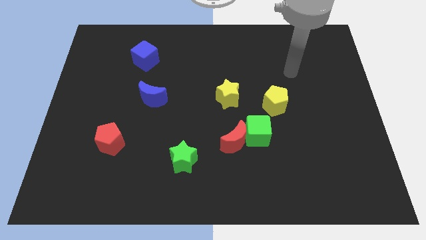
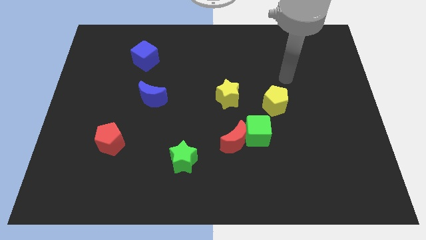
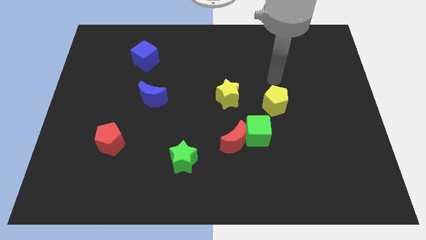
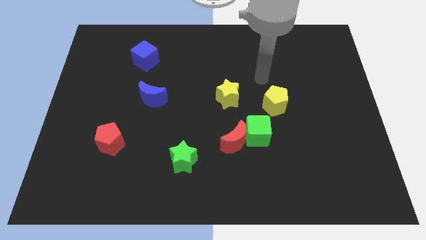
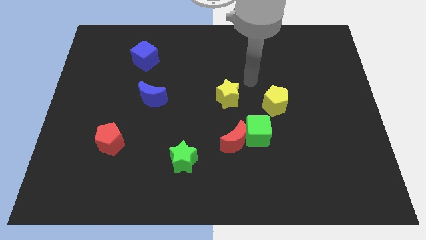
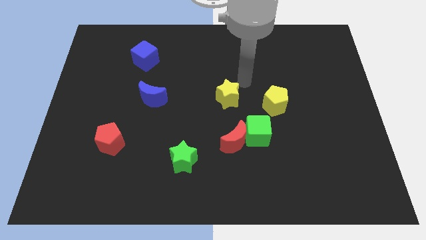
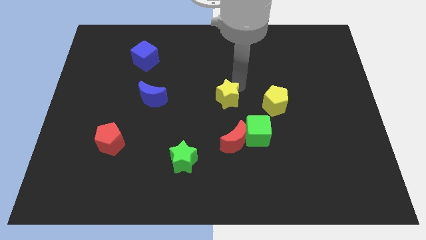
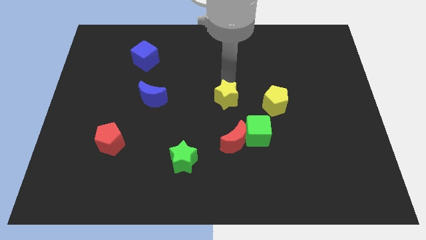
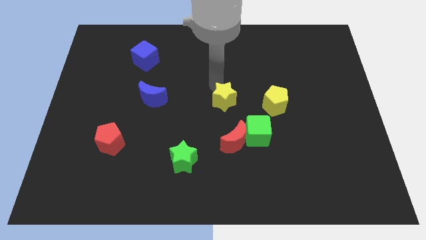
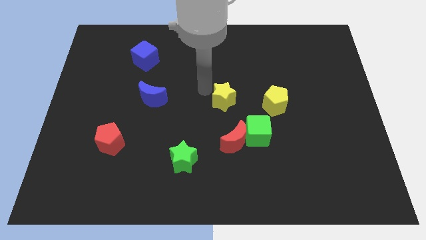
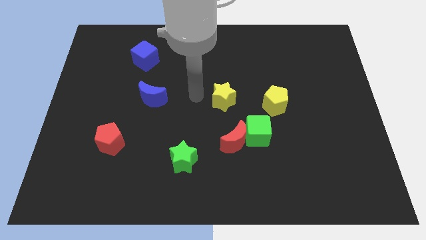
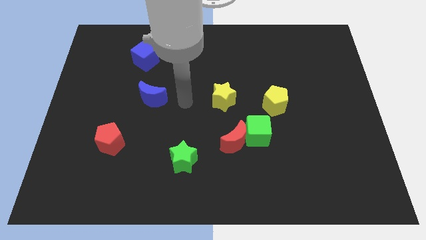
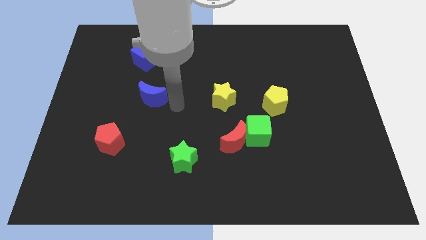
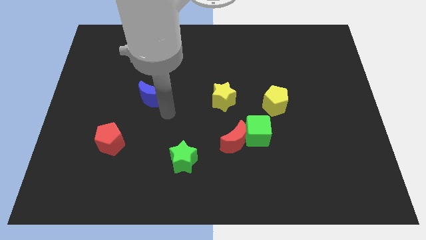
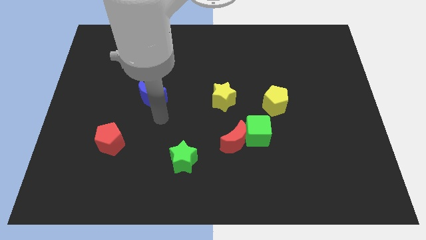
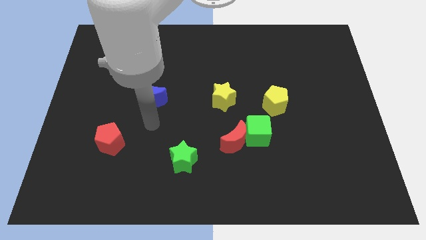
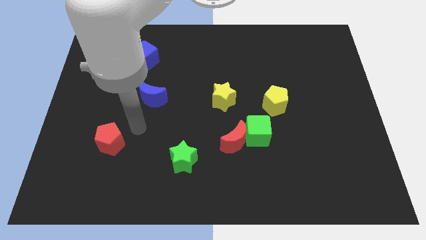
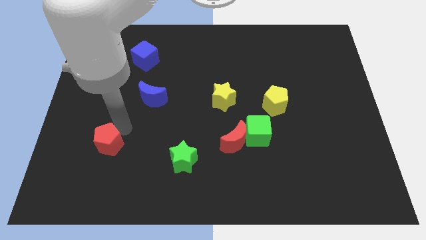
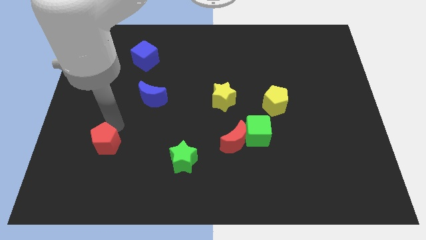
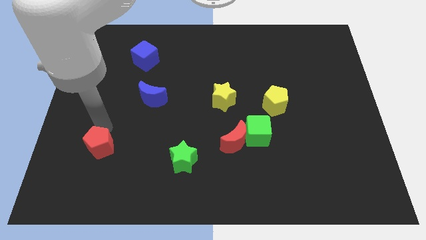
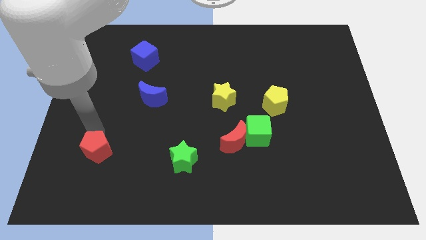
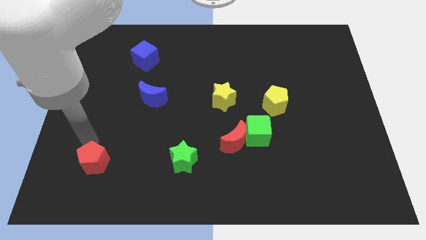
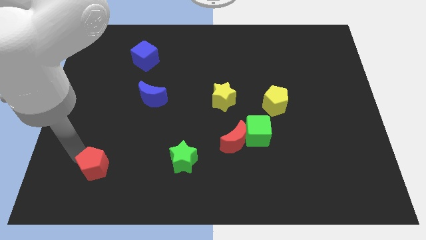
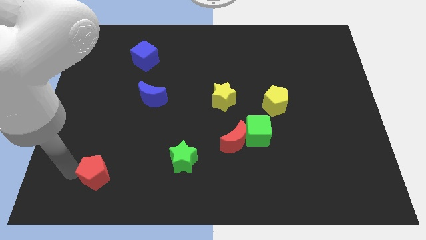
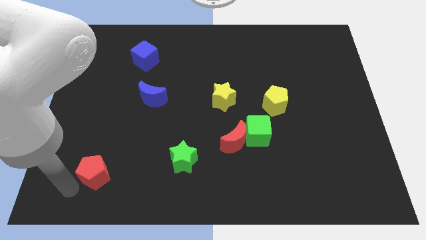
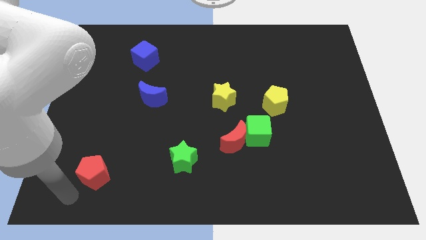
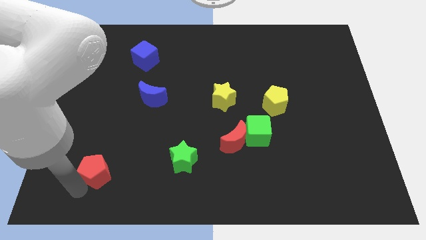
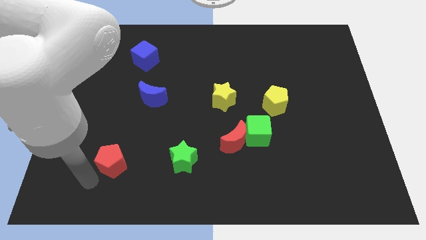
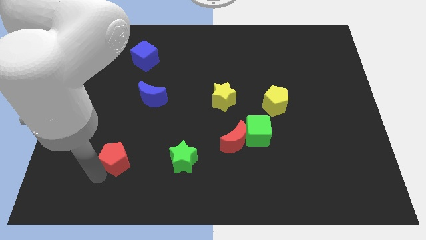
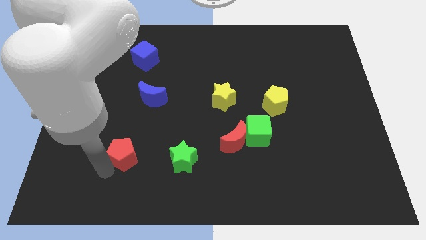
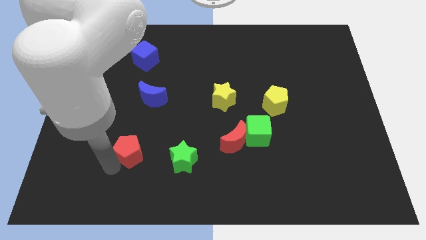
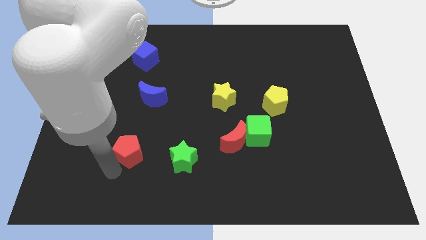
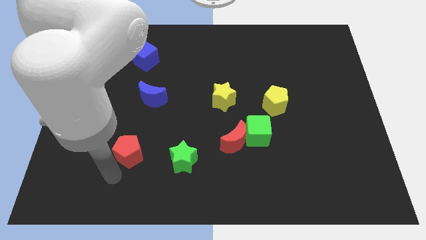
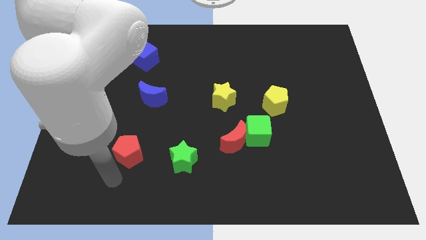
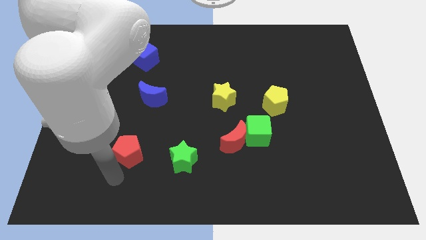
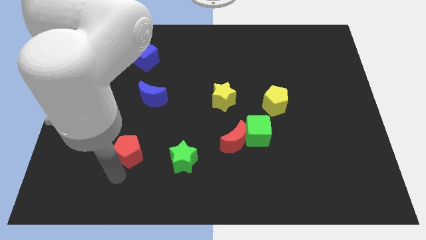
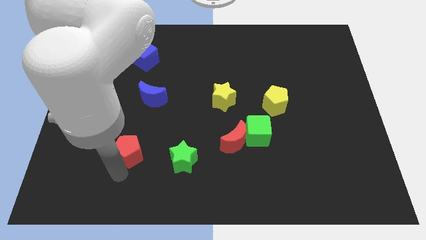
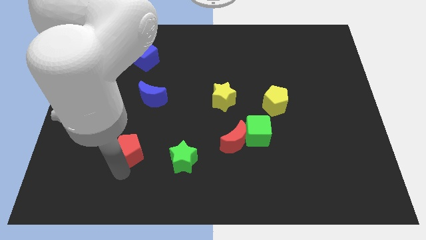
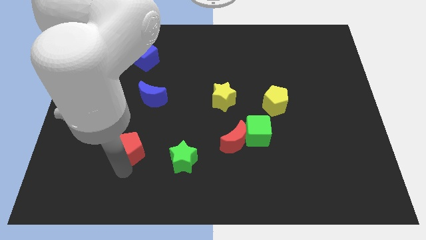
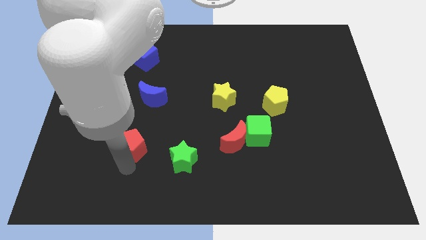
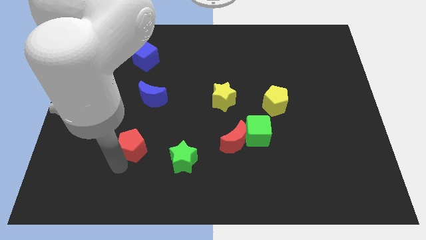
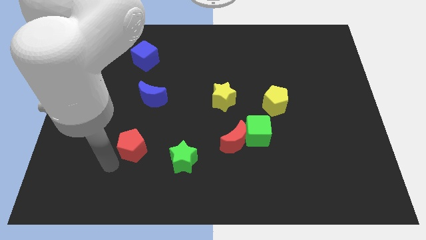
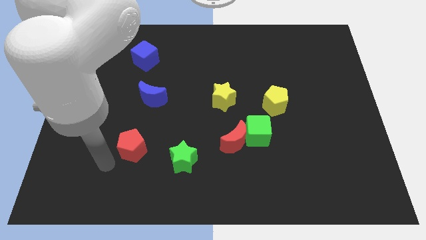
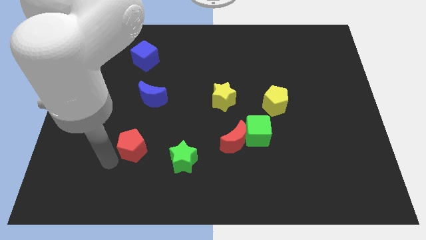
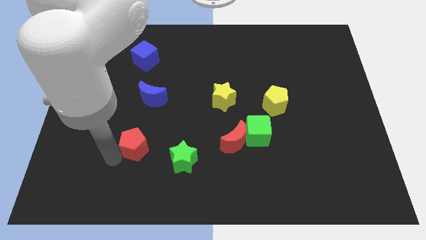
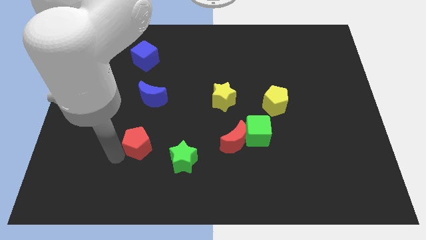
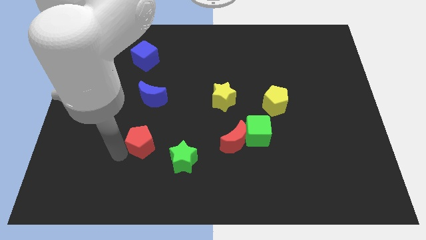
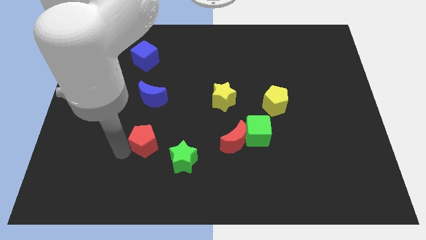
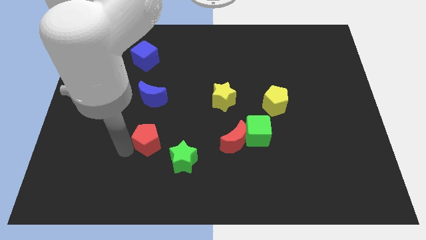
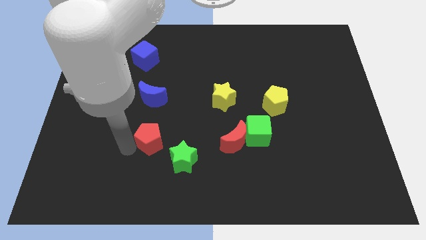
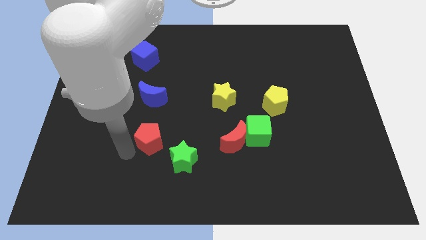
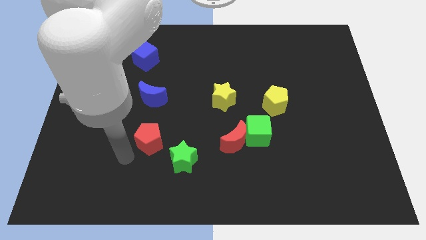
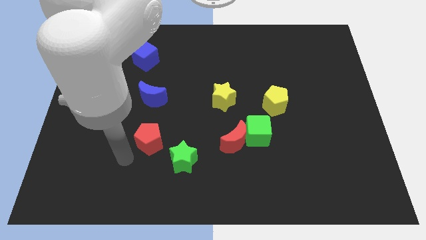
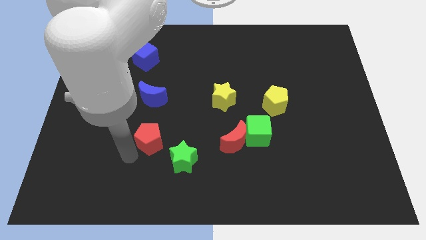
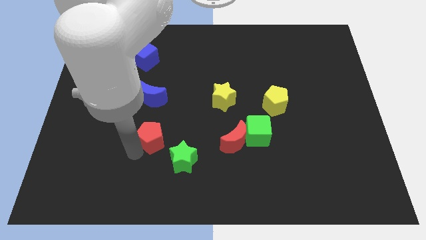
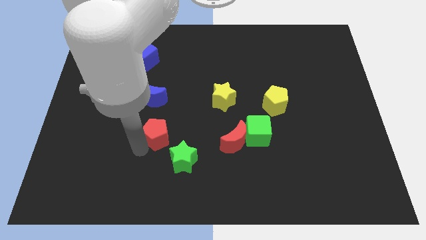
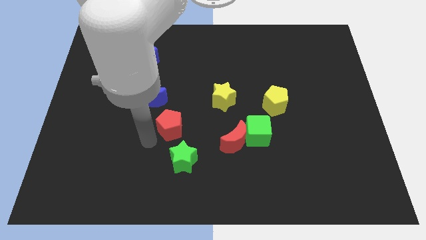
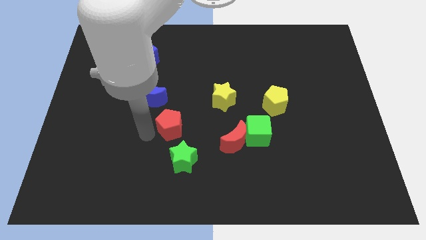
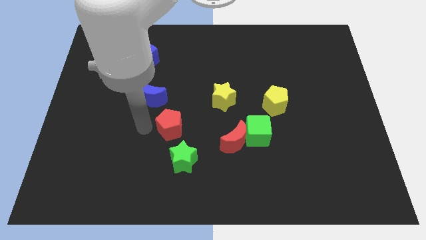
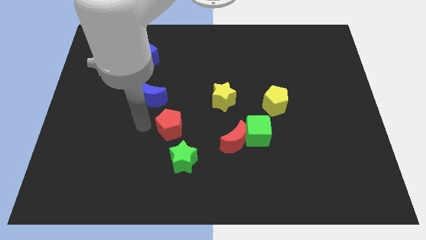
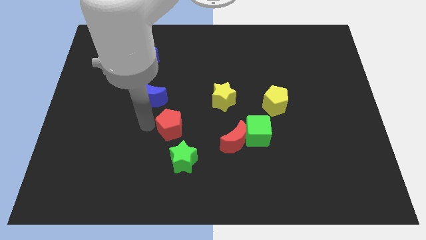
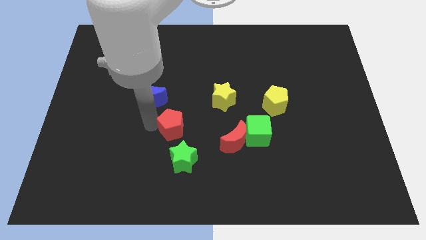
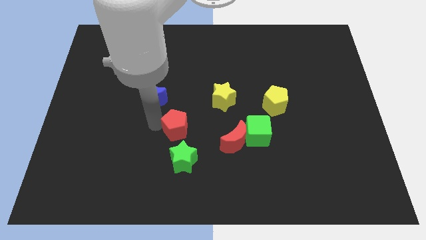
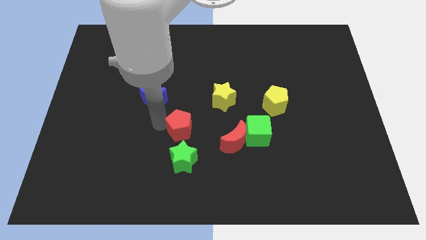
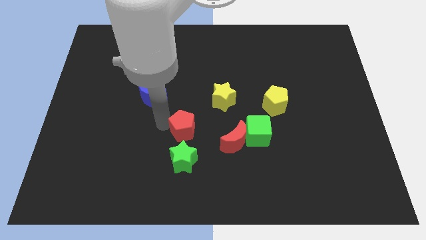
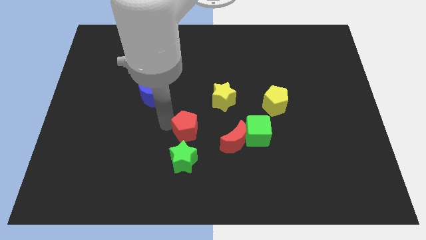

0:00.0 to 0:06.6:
push the red pentagon to the left side of the green cube

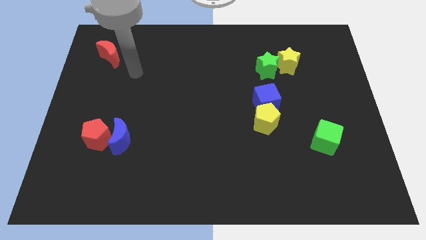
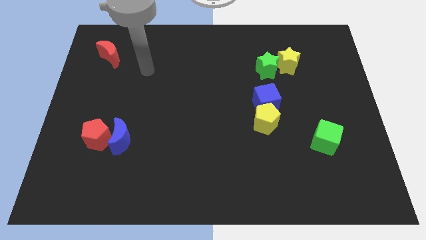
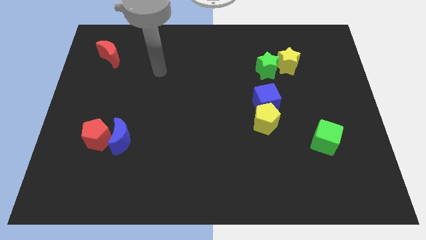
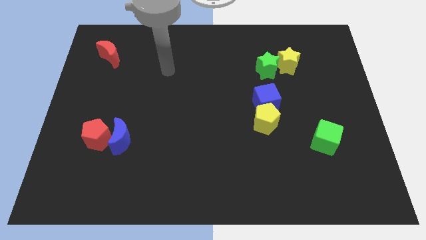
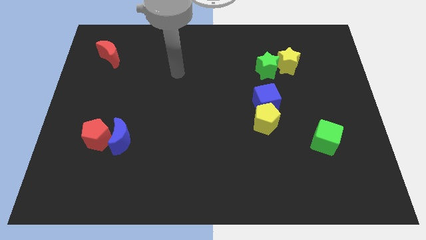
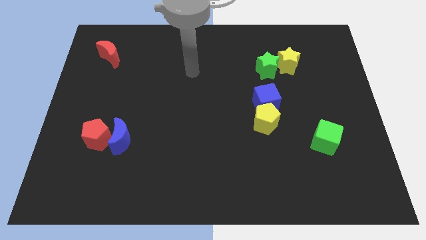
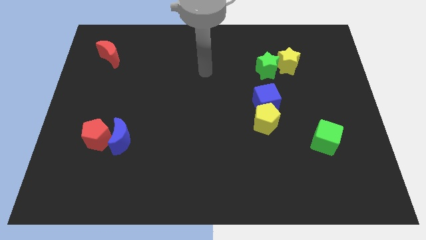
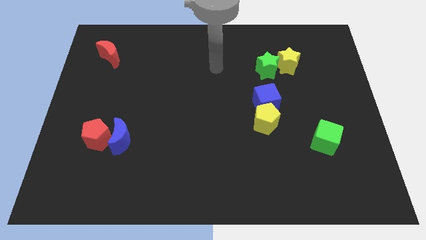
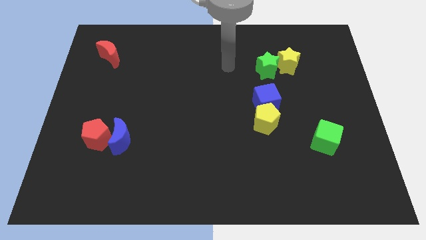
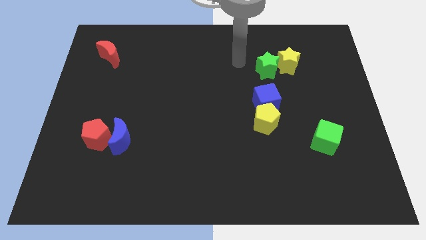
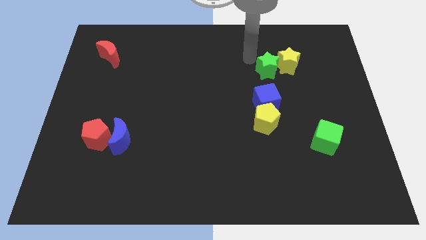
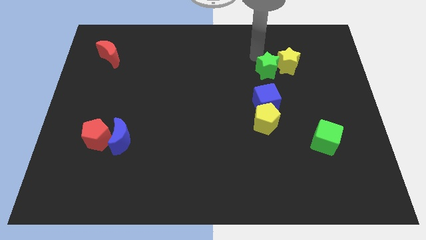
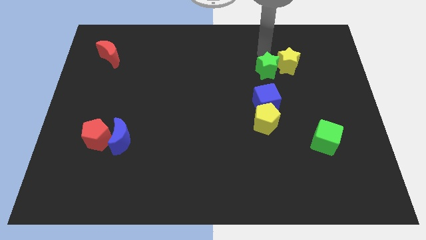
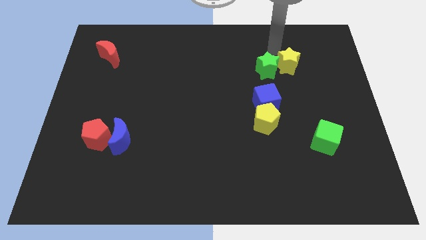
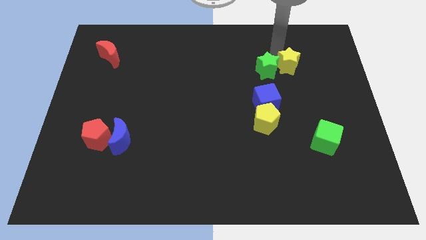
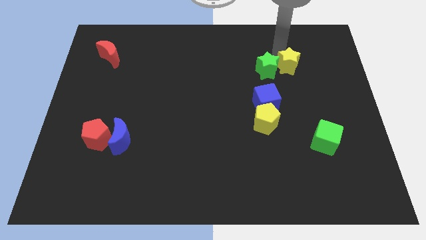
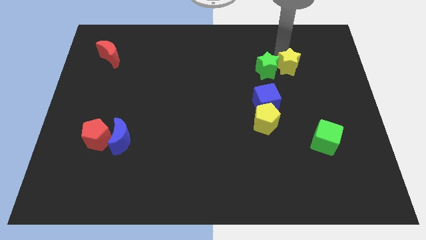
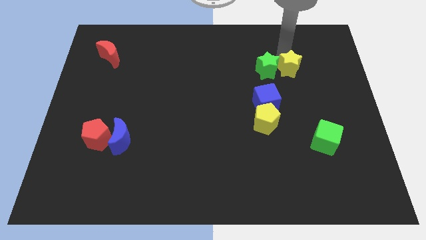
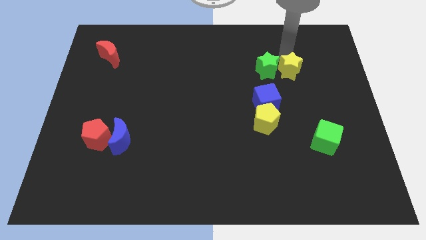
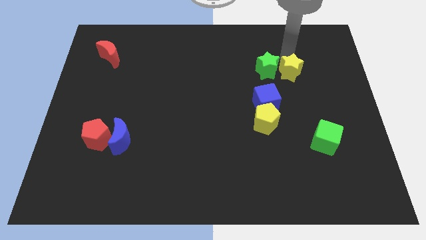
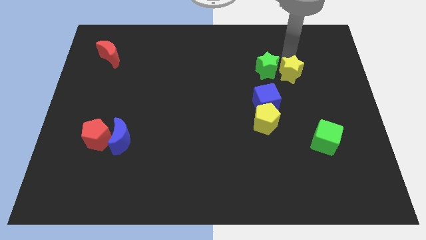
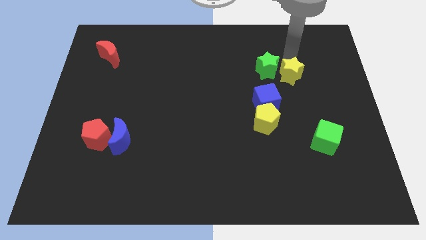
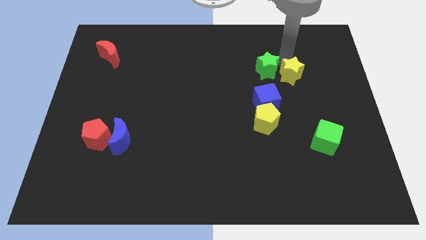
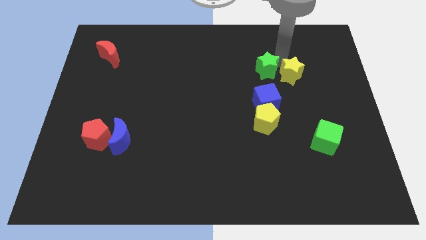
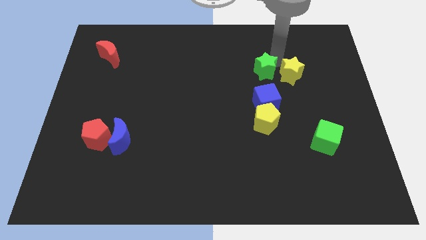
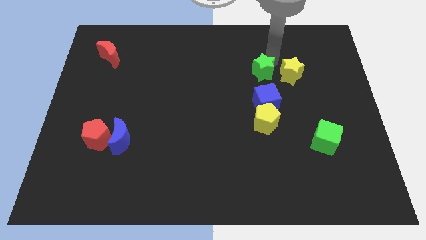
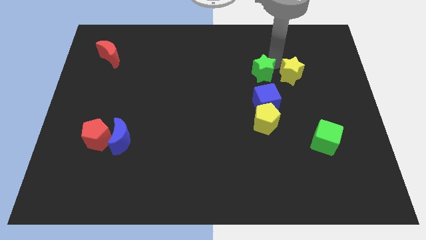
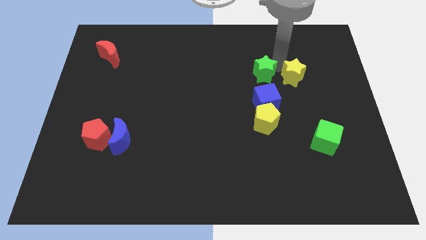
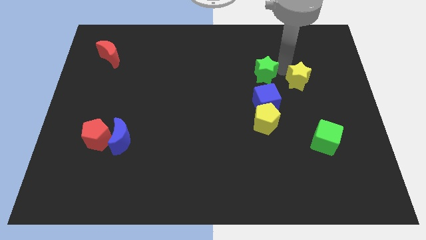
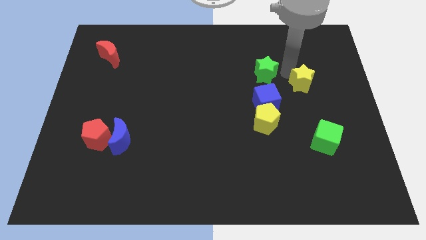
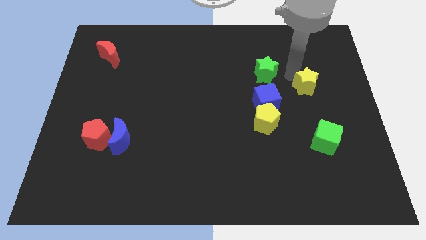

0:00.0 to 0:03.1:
put the yellow star to the top of the green cube
